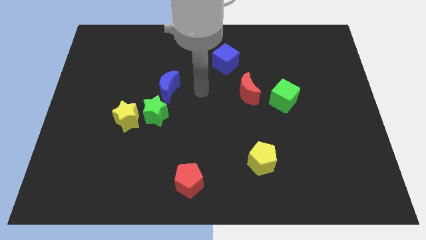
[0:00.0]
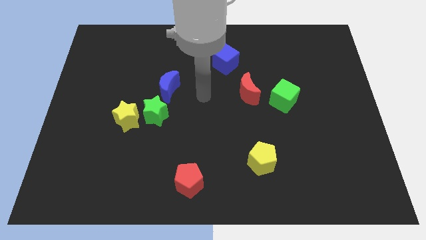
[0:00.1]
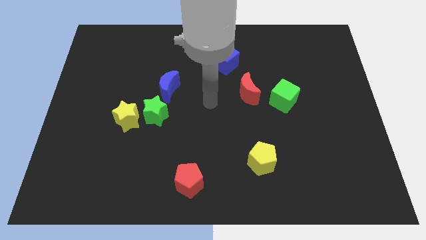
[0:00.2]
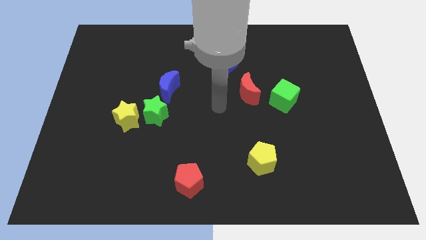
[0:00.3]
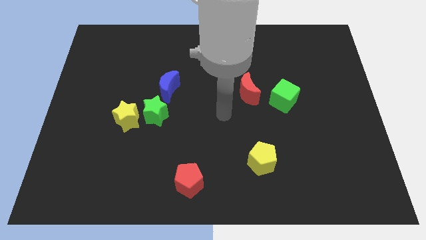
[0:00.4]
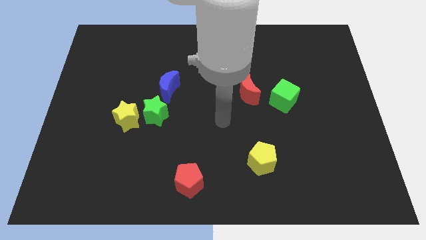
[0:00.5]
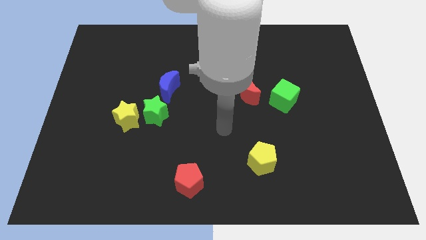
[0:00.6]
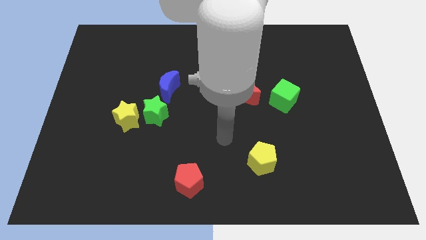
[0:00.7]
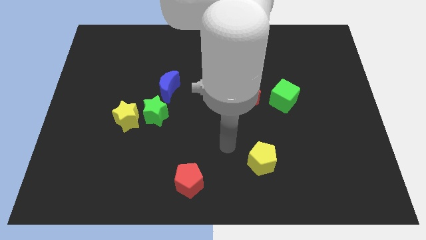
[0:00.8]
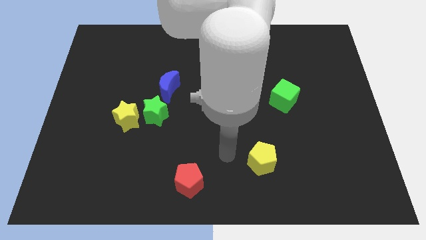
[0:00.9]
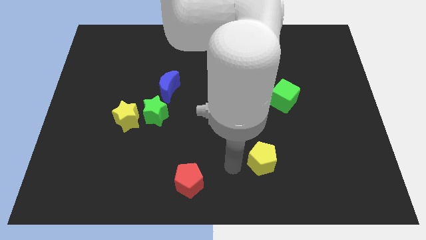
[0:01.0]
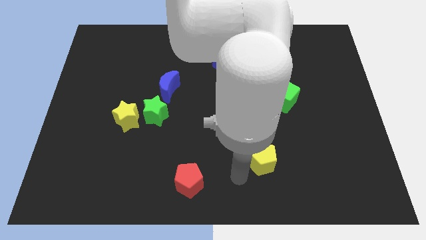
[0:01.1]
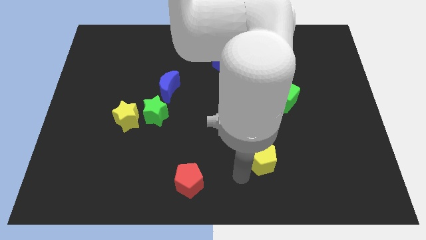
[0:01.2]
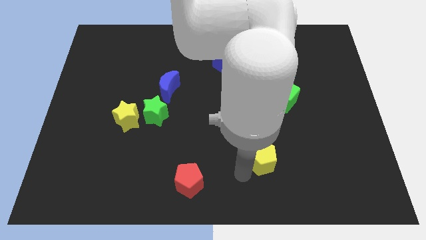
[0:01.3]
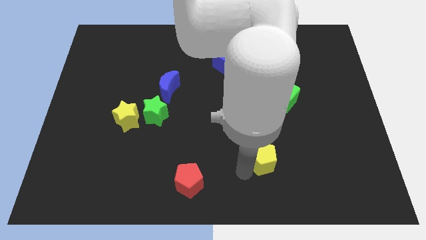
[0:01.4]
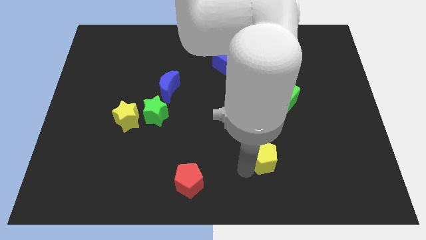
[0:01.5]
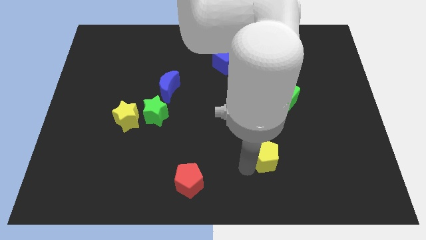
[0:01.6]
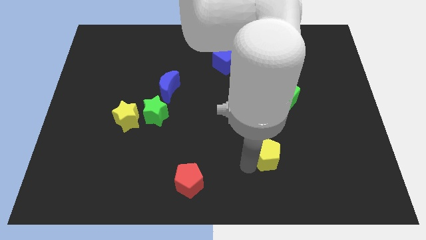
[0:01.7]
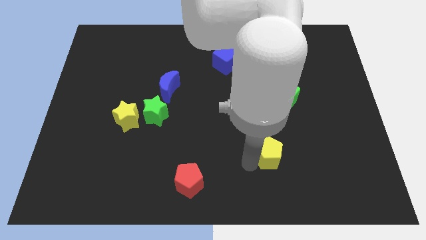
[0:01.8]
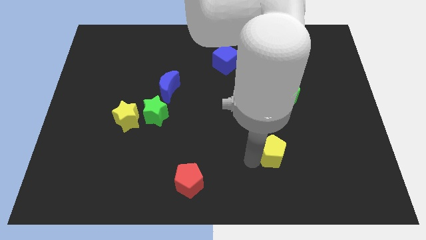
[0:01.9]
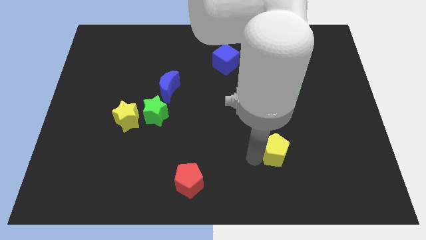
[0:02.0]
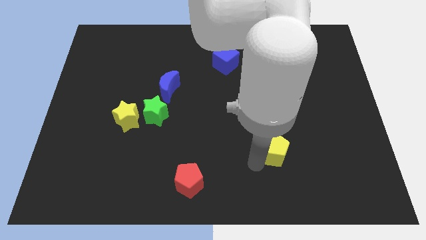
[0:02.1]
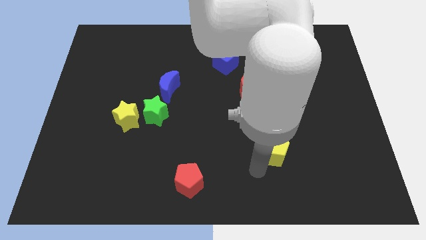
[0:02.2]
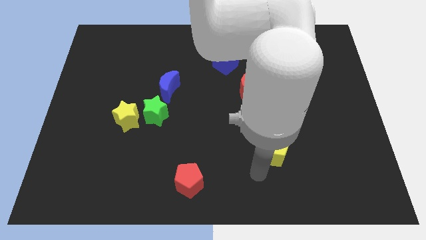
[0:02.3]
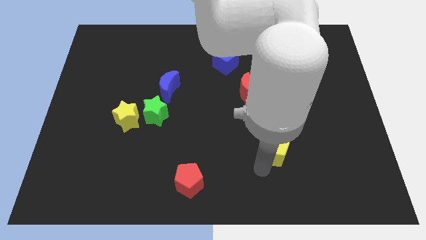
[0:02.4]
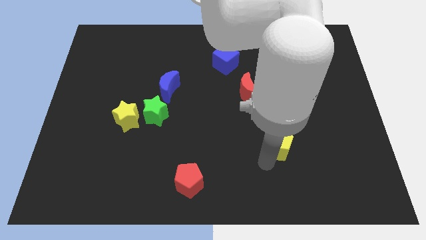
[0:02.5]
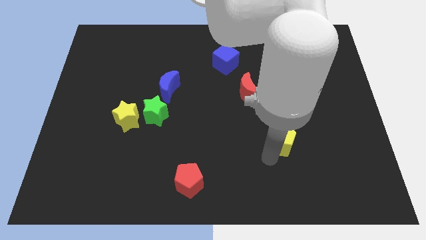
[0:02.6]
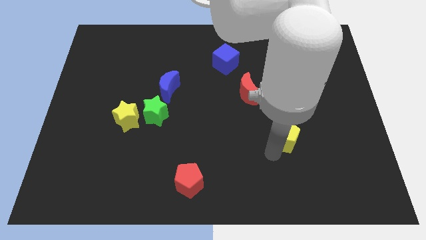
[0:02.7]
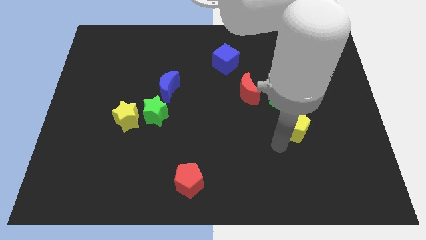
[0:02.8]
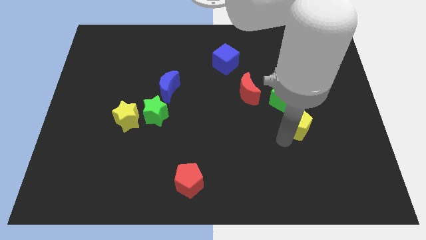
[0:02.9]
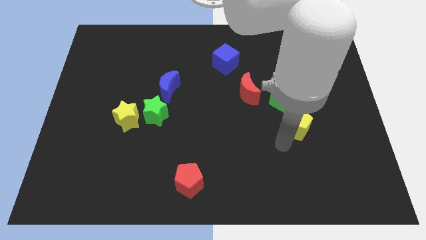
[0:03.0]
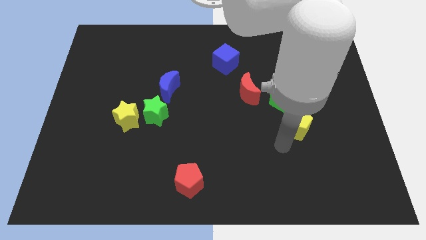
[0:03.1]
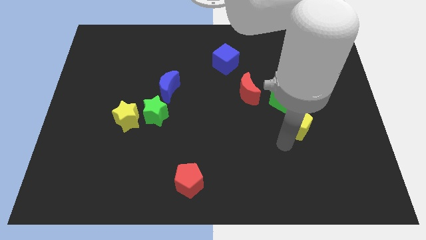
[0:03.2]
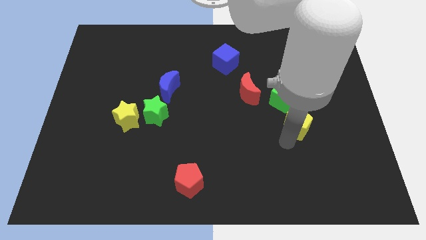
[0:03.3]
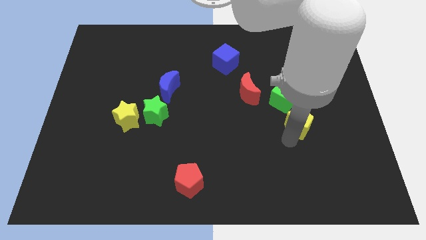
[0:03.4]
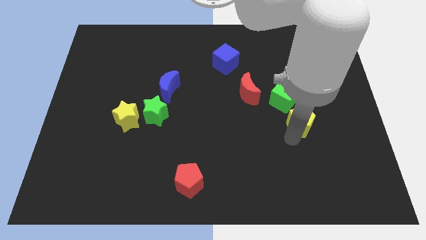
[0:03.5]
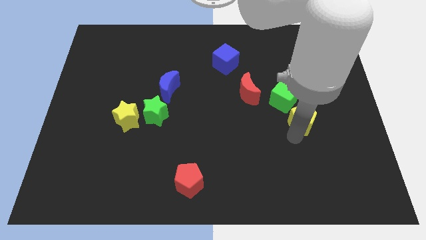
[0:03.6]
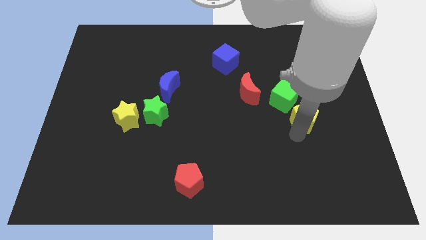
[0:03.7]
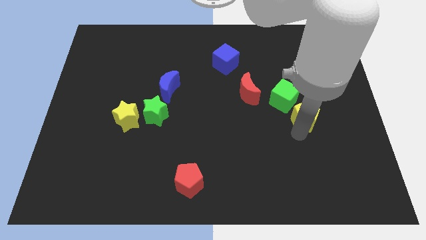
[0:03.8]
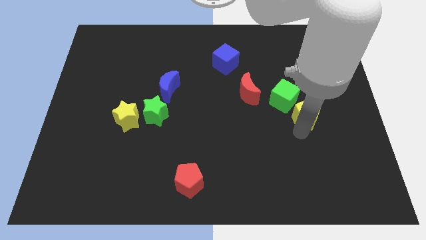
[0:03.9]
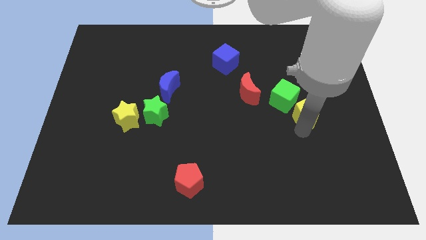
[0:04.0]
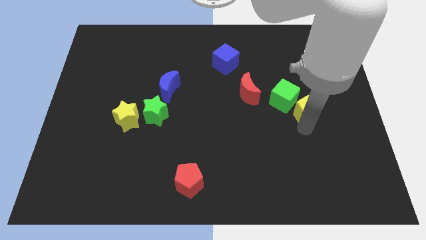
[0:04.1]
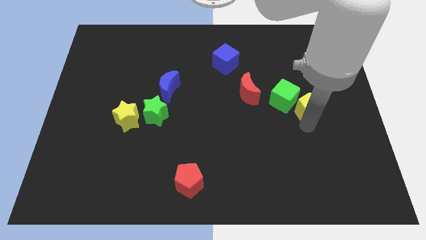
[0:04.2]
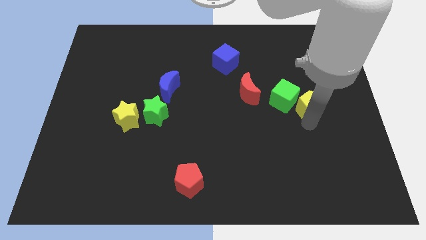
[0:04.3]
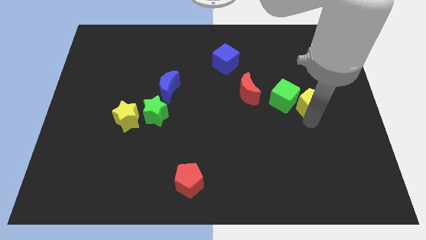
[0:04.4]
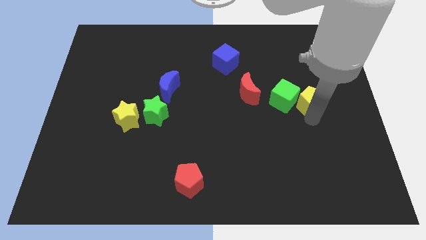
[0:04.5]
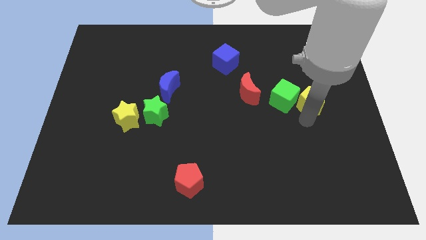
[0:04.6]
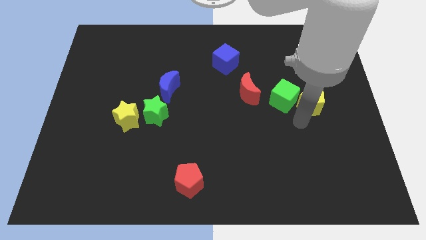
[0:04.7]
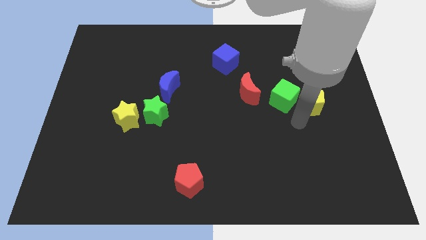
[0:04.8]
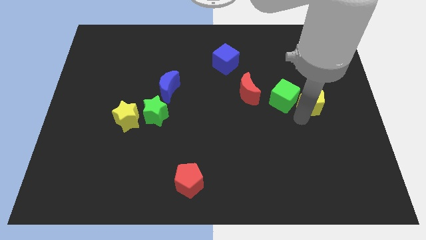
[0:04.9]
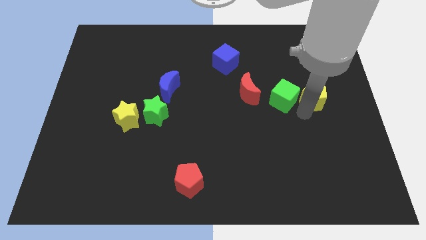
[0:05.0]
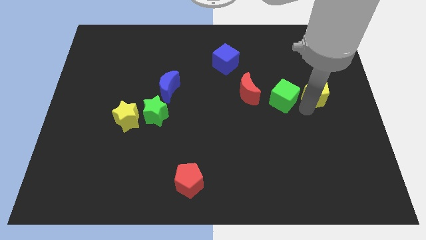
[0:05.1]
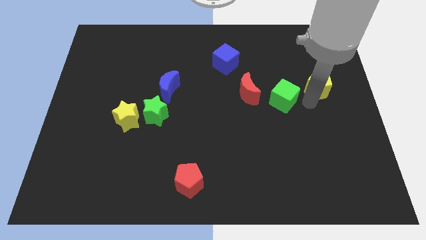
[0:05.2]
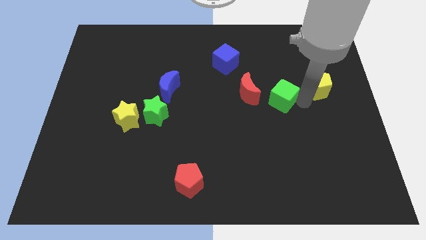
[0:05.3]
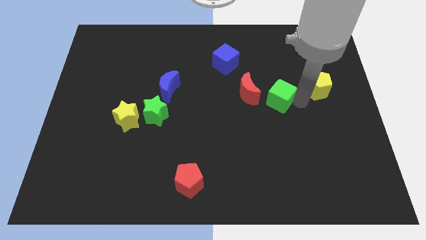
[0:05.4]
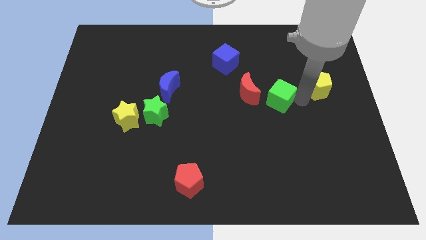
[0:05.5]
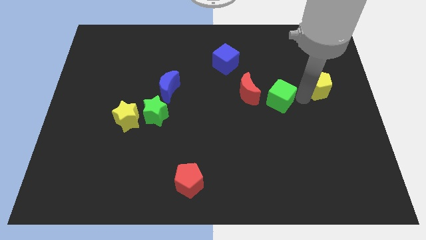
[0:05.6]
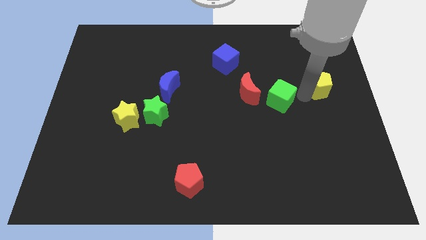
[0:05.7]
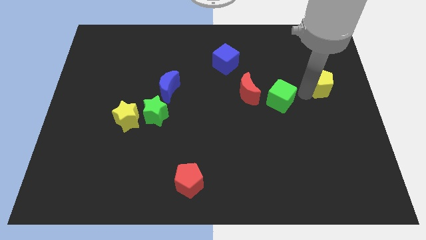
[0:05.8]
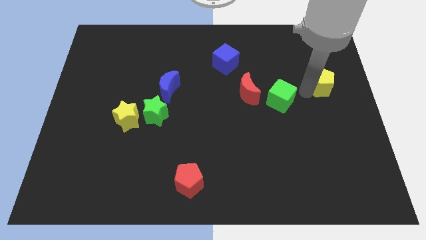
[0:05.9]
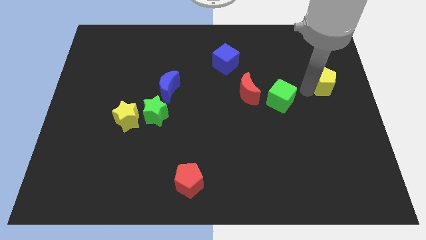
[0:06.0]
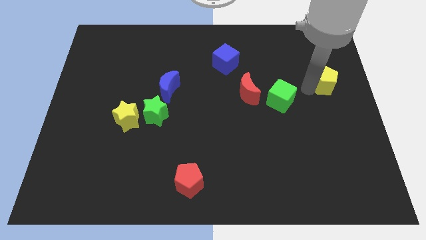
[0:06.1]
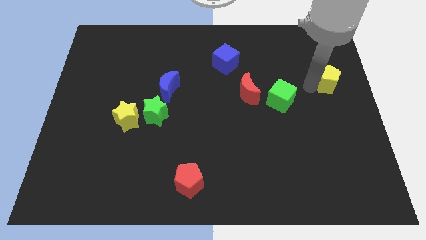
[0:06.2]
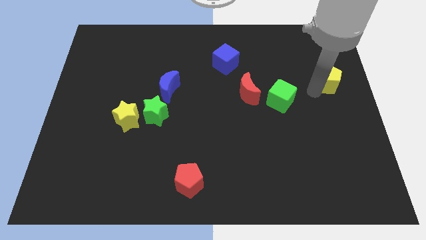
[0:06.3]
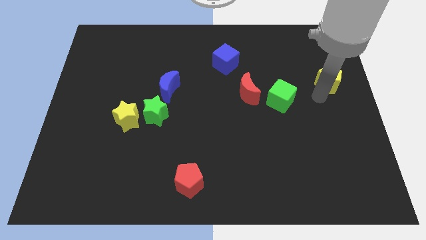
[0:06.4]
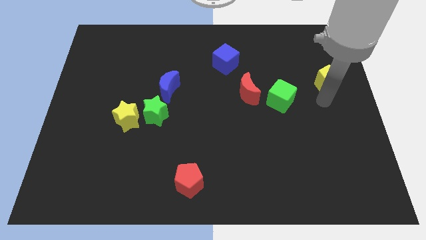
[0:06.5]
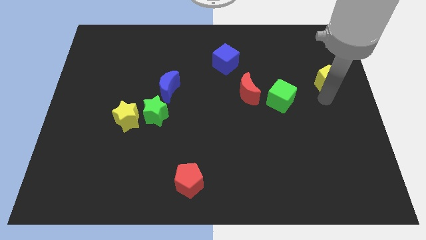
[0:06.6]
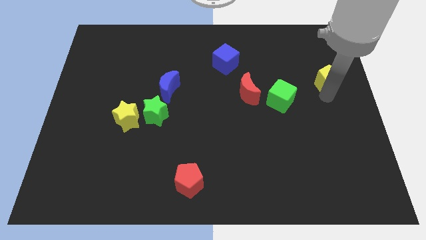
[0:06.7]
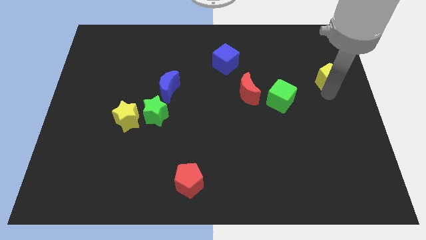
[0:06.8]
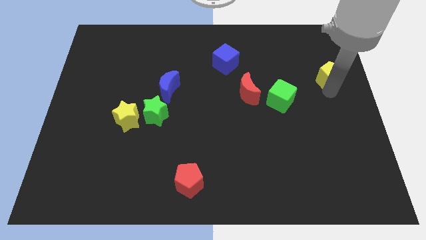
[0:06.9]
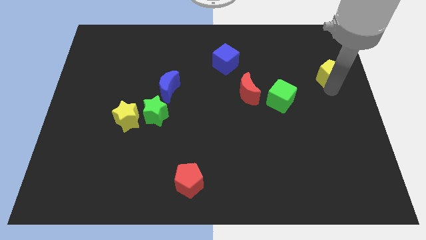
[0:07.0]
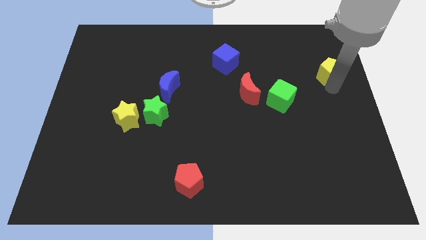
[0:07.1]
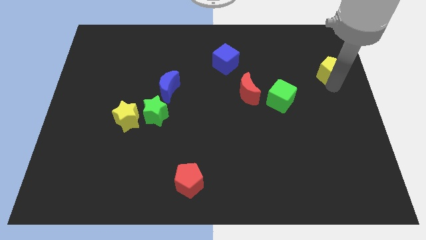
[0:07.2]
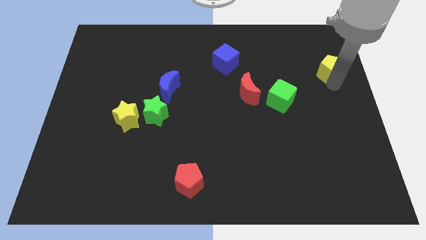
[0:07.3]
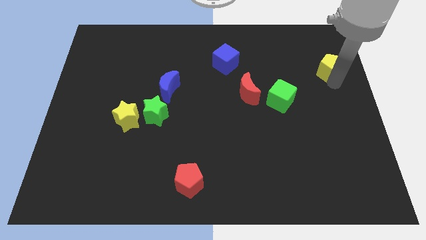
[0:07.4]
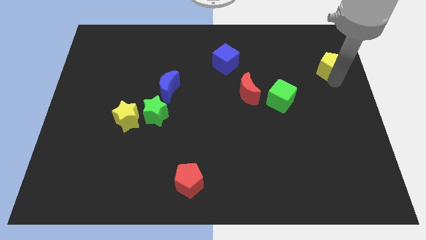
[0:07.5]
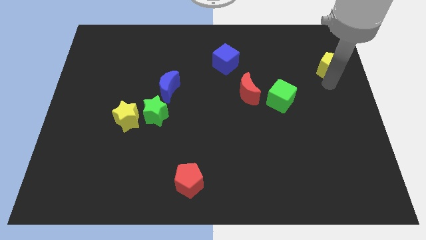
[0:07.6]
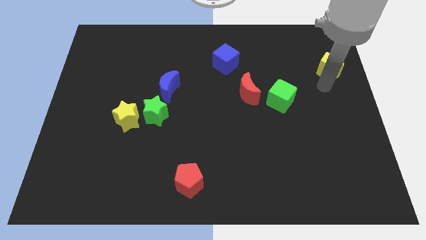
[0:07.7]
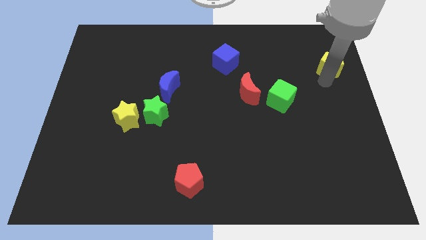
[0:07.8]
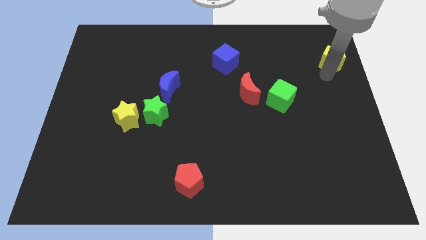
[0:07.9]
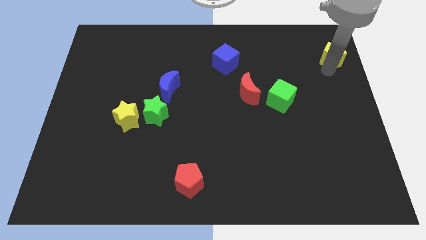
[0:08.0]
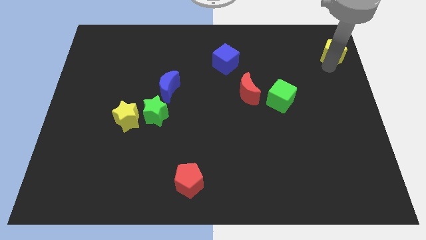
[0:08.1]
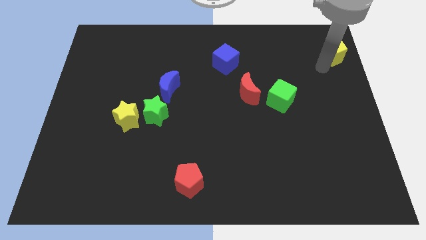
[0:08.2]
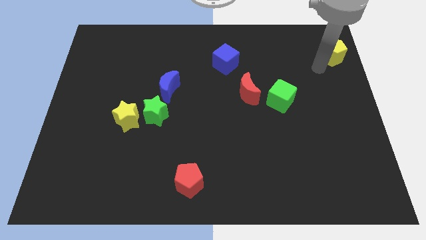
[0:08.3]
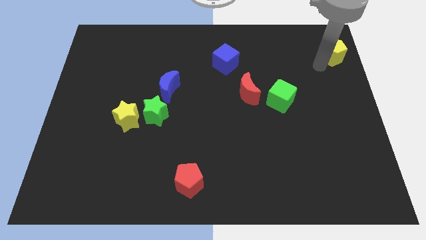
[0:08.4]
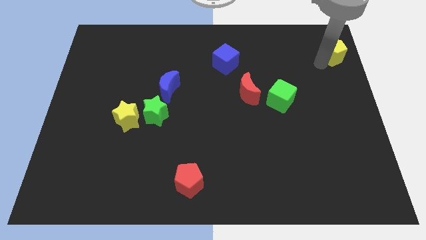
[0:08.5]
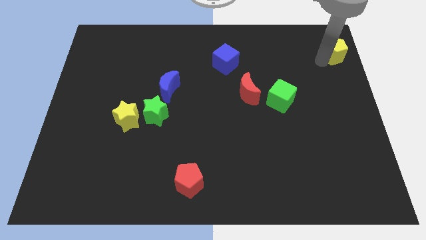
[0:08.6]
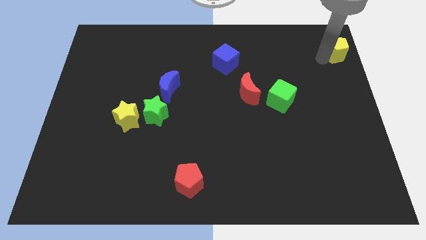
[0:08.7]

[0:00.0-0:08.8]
move the yellow pentagon to the upper right corner
